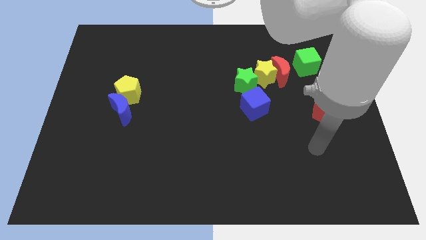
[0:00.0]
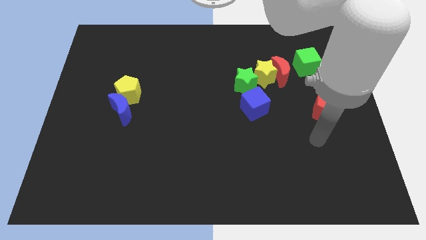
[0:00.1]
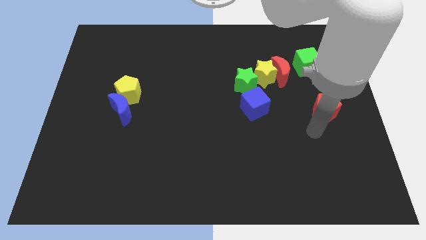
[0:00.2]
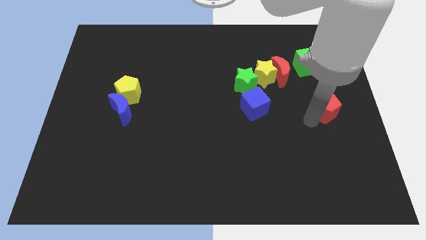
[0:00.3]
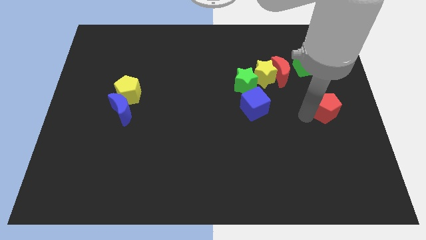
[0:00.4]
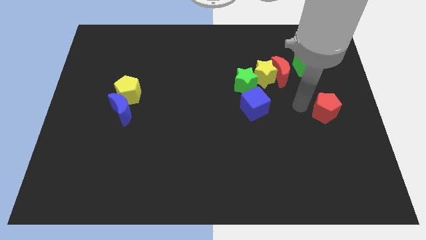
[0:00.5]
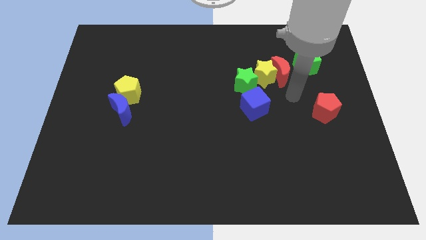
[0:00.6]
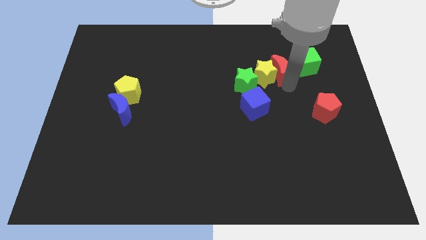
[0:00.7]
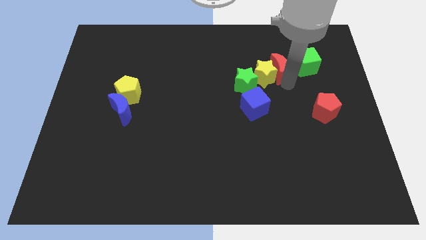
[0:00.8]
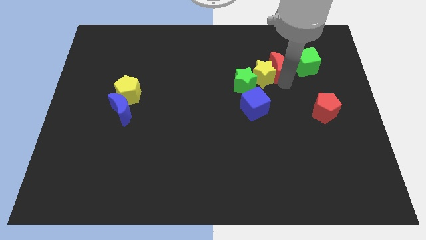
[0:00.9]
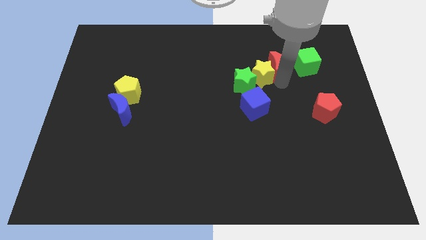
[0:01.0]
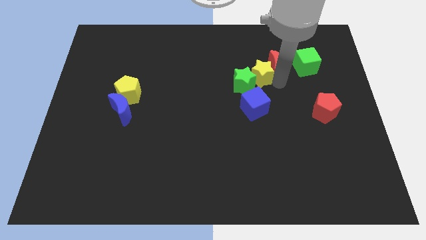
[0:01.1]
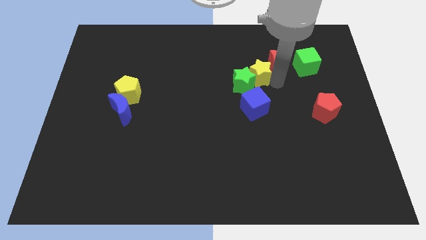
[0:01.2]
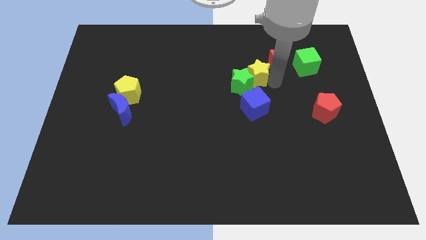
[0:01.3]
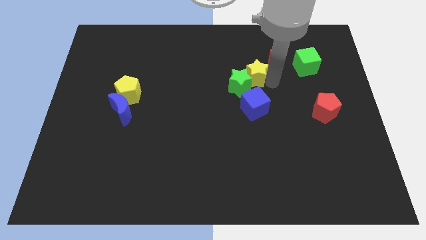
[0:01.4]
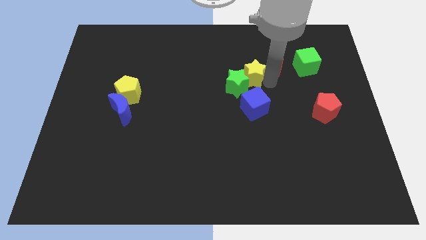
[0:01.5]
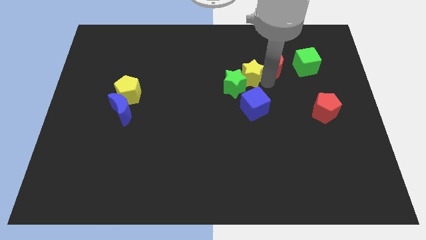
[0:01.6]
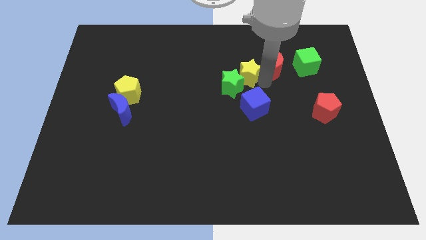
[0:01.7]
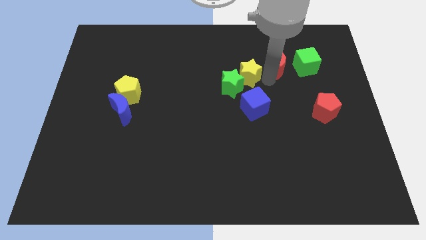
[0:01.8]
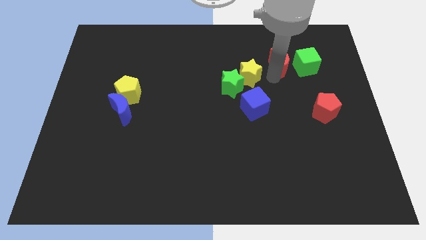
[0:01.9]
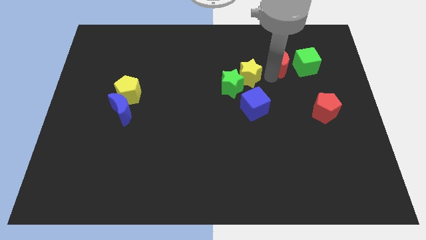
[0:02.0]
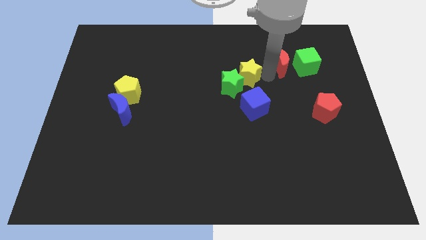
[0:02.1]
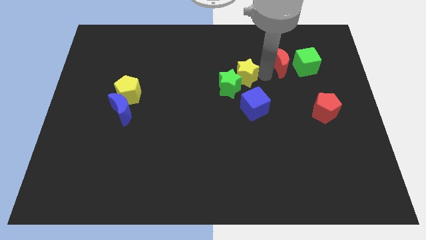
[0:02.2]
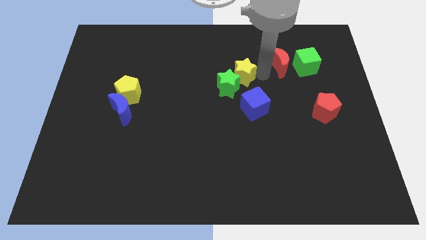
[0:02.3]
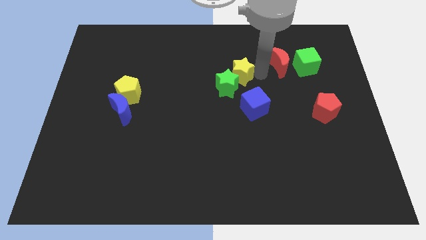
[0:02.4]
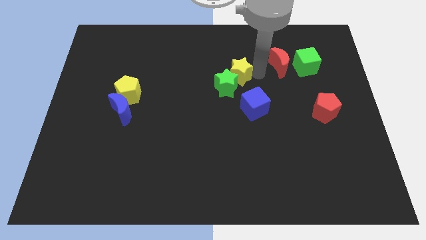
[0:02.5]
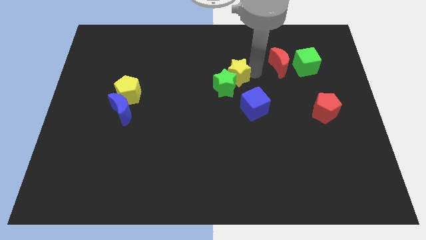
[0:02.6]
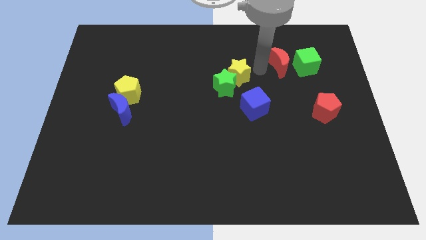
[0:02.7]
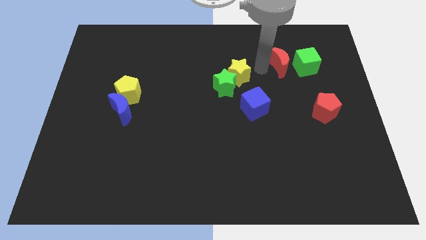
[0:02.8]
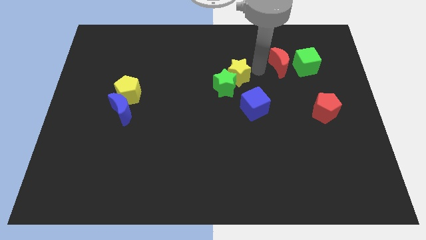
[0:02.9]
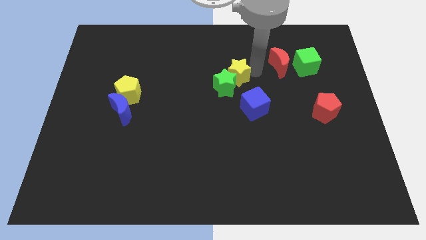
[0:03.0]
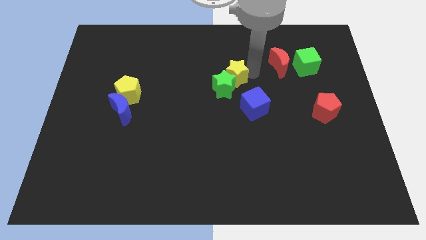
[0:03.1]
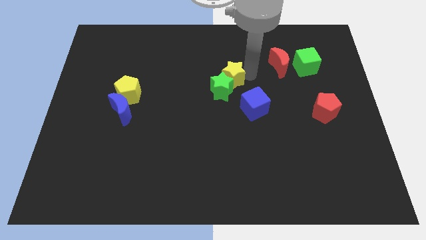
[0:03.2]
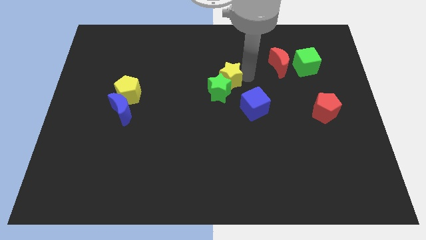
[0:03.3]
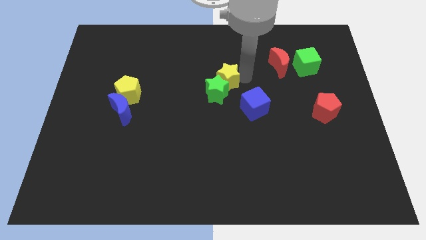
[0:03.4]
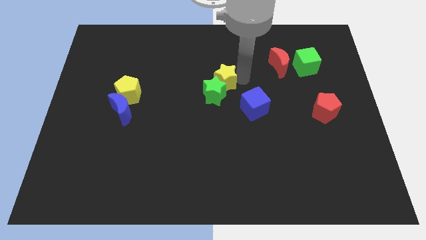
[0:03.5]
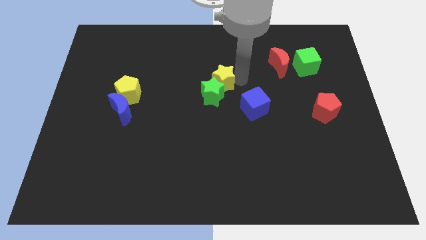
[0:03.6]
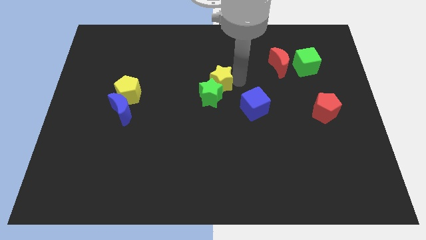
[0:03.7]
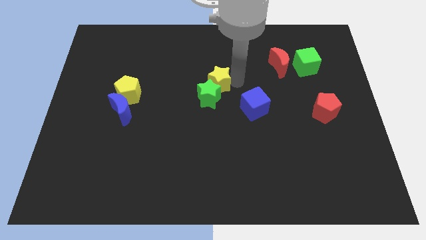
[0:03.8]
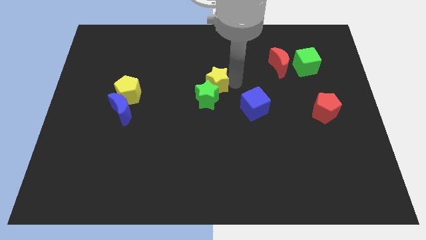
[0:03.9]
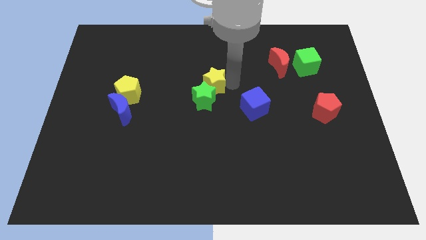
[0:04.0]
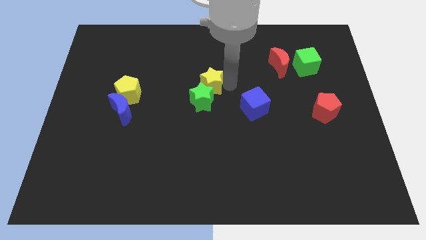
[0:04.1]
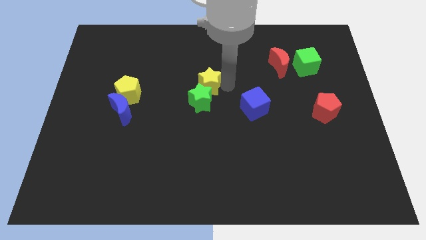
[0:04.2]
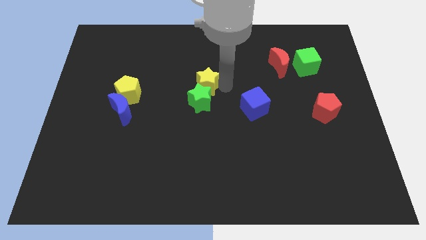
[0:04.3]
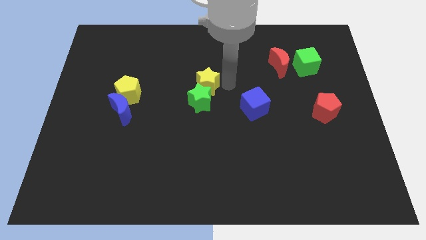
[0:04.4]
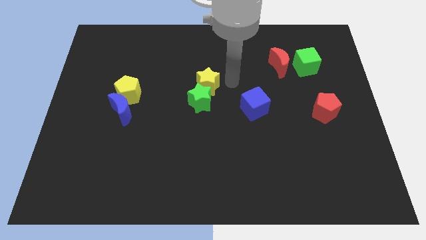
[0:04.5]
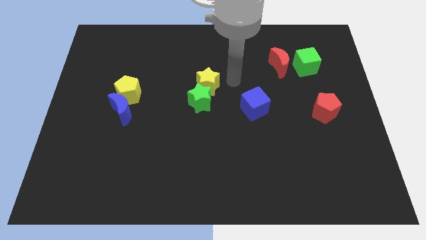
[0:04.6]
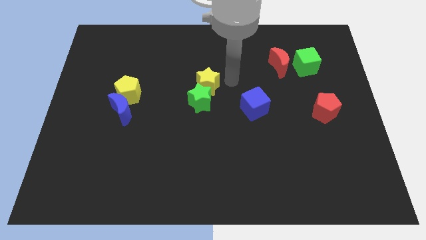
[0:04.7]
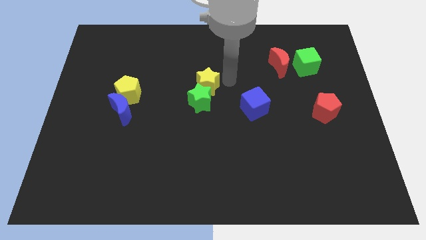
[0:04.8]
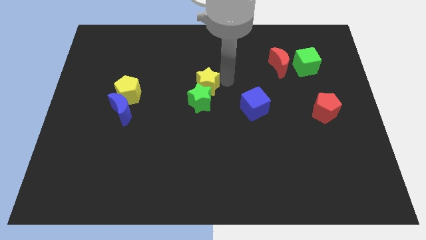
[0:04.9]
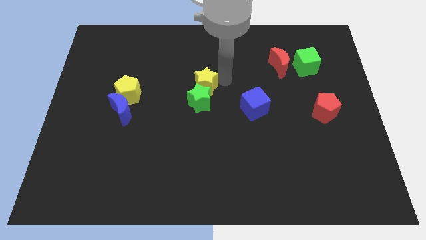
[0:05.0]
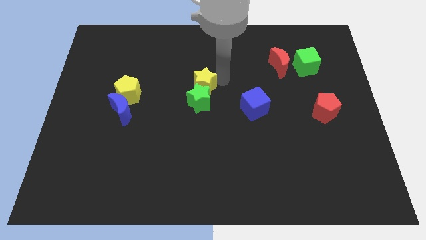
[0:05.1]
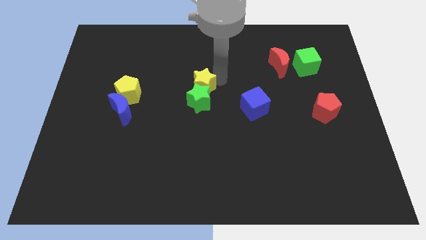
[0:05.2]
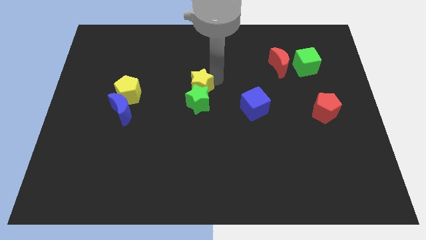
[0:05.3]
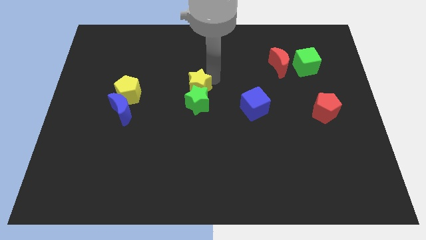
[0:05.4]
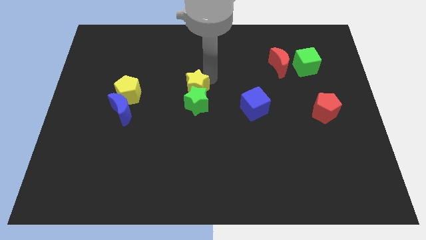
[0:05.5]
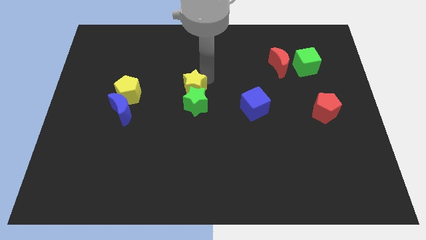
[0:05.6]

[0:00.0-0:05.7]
put the yellow star to the right of the yellow pentagon
